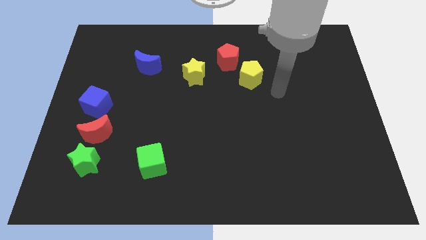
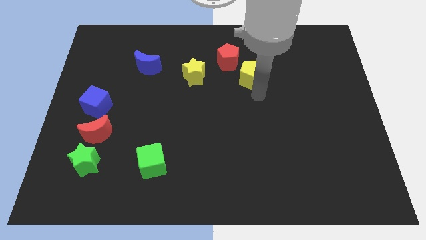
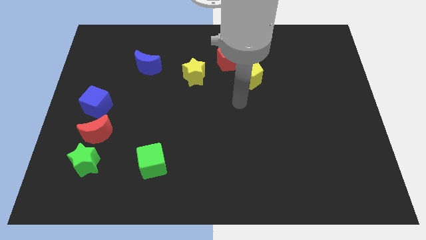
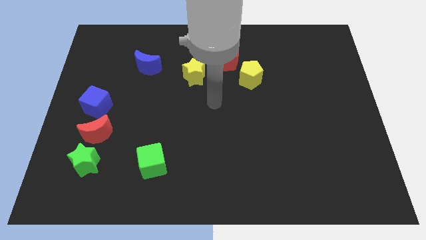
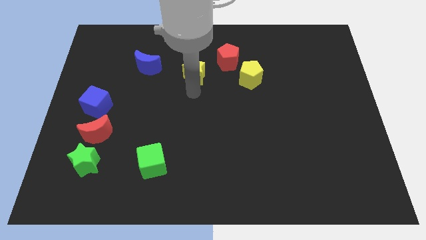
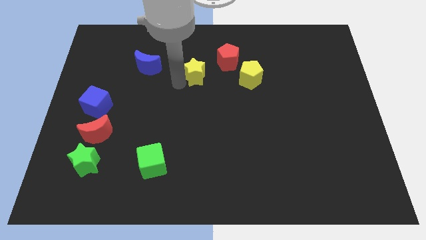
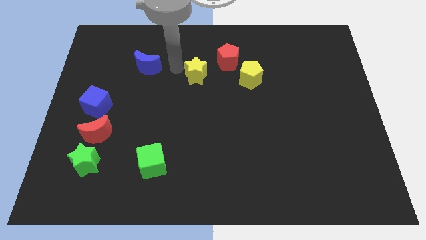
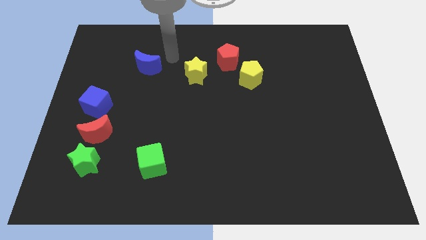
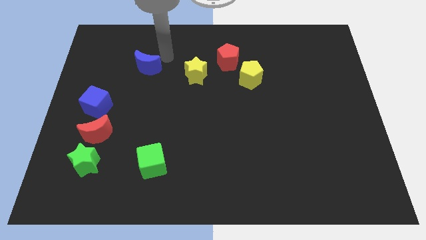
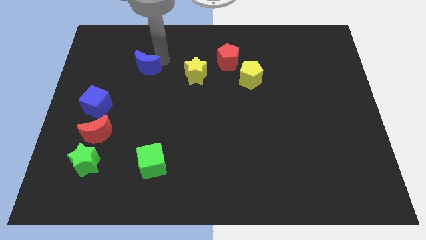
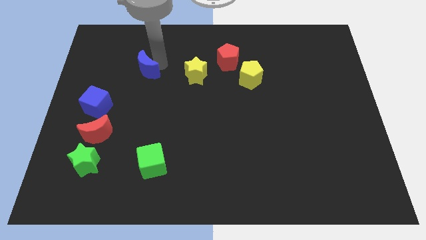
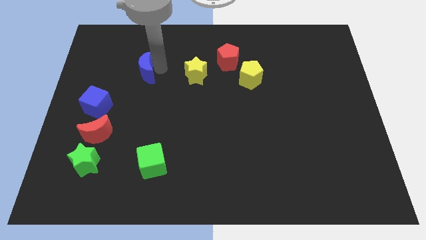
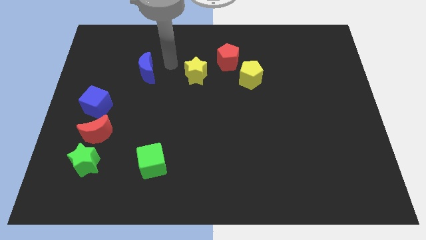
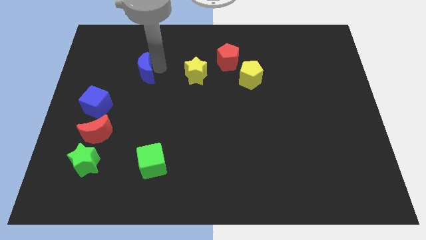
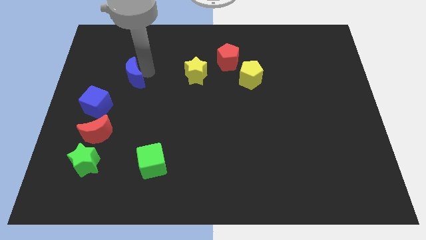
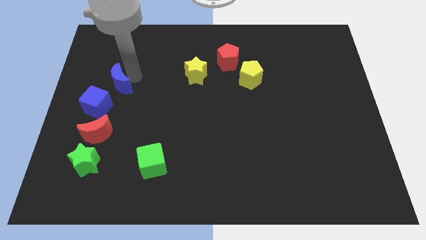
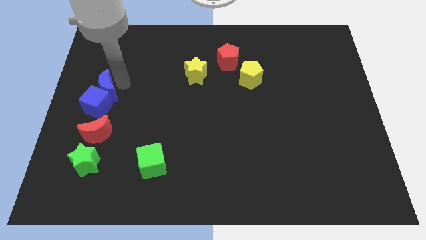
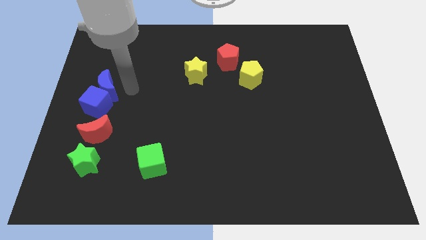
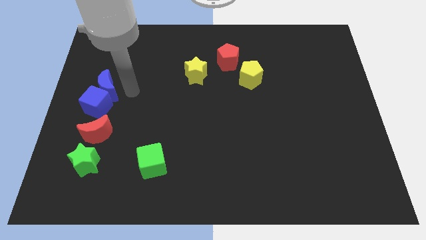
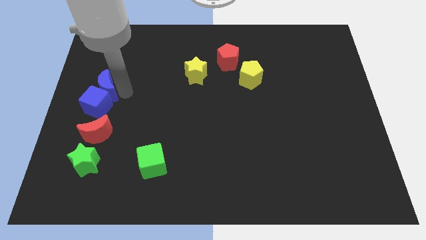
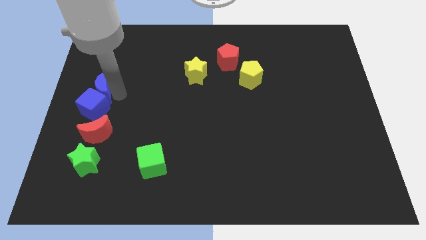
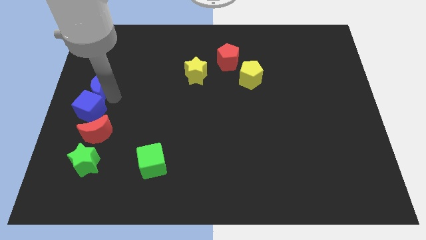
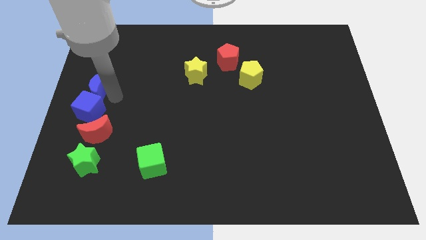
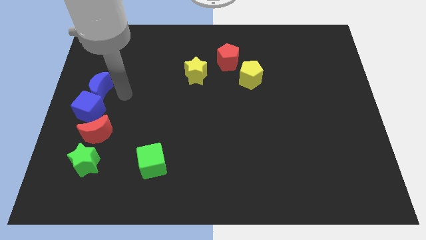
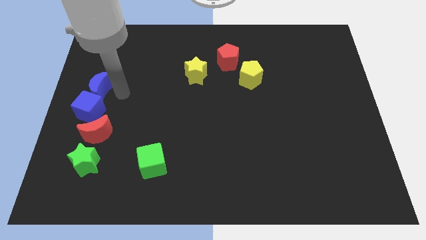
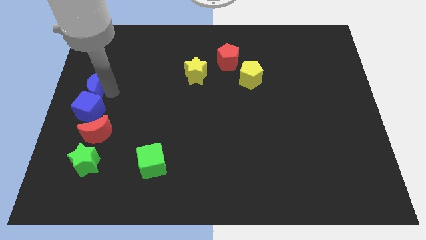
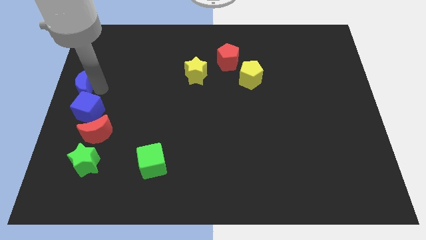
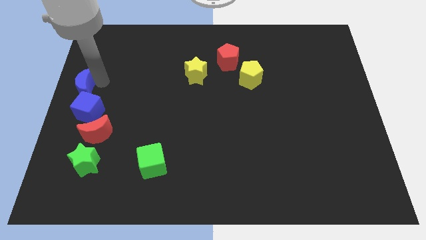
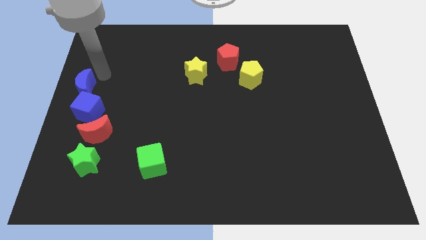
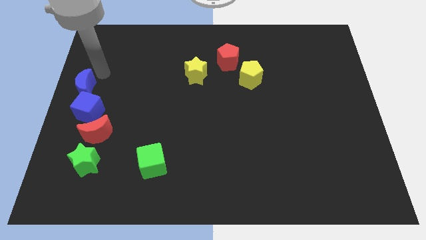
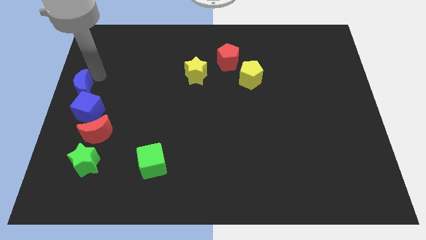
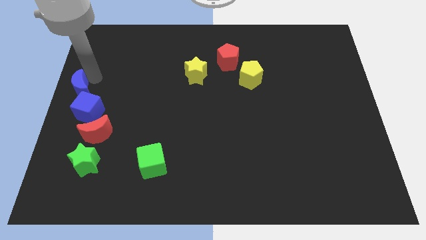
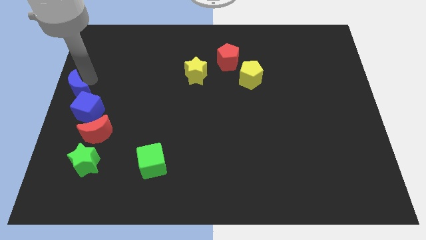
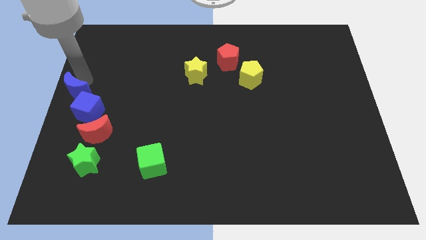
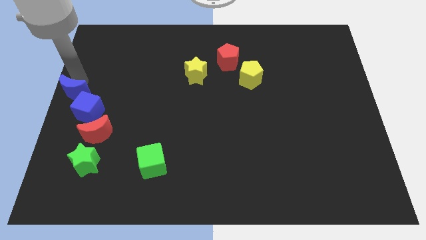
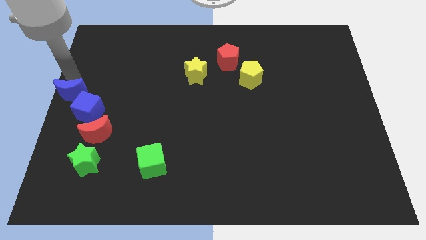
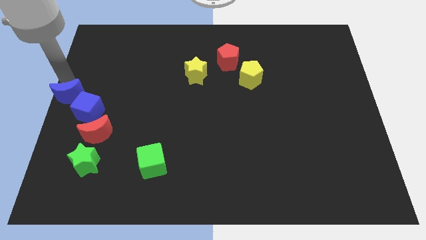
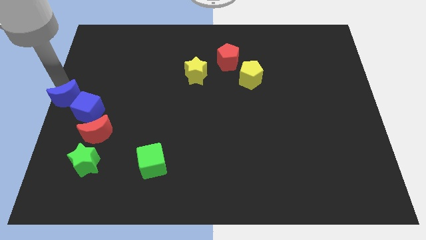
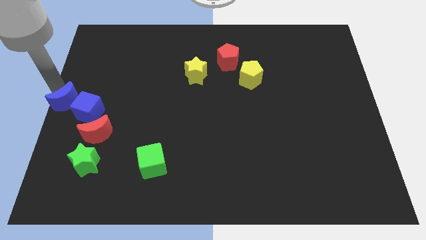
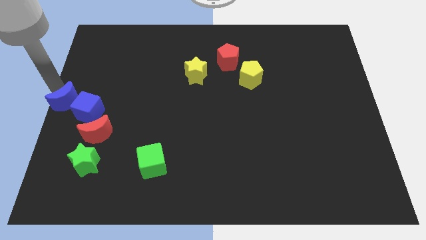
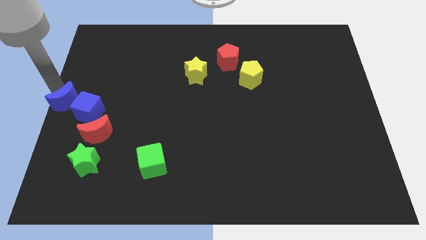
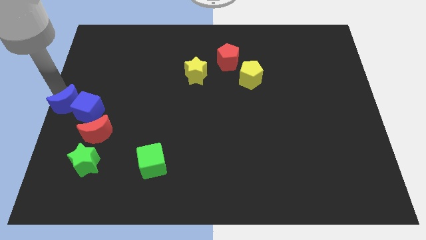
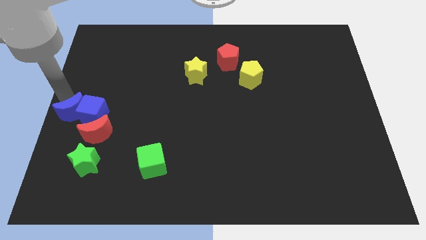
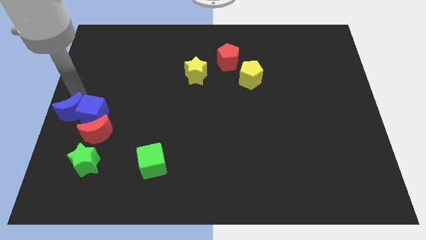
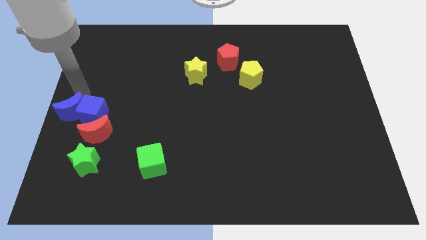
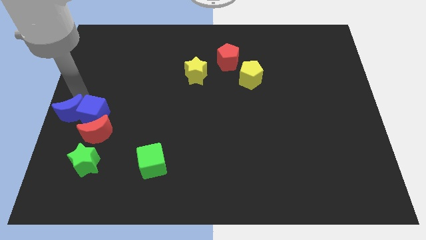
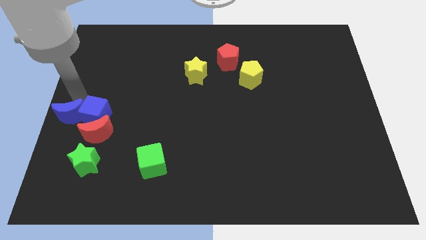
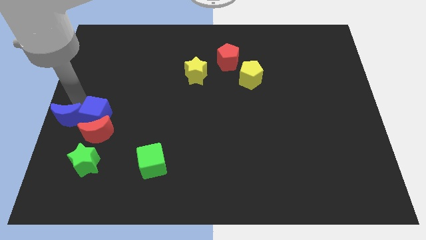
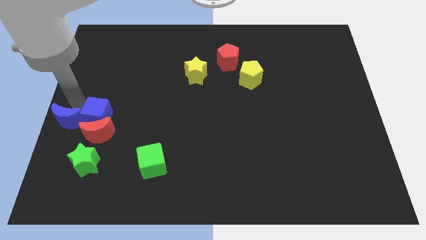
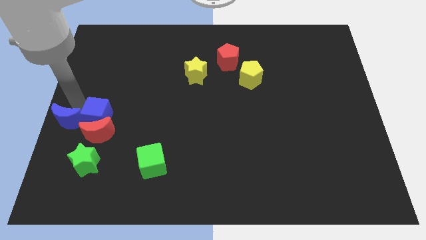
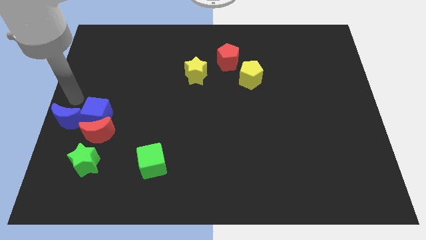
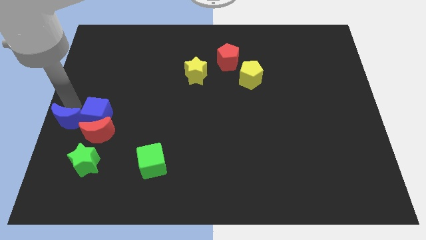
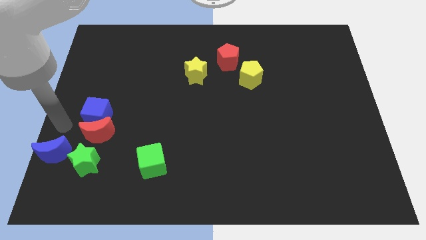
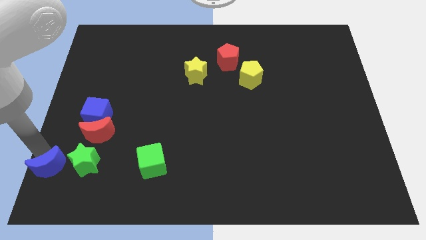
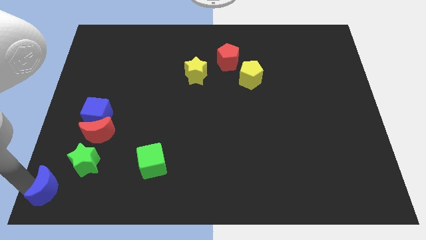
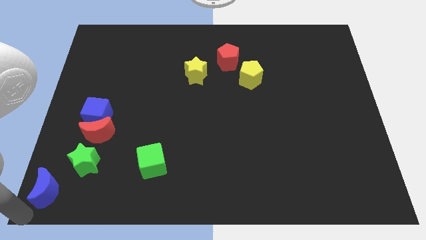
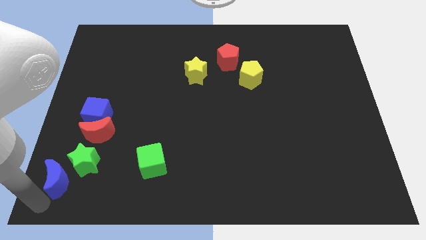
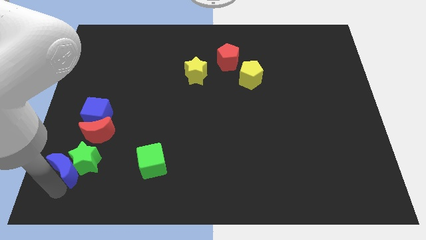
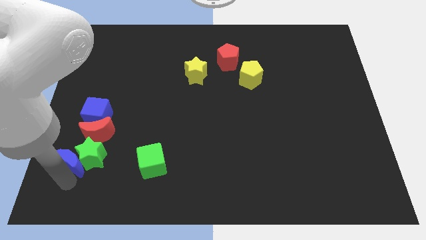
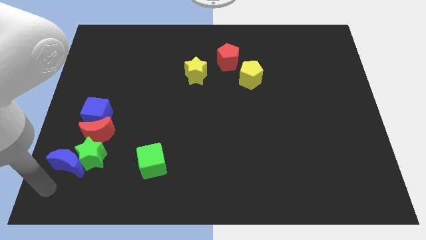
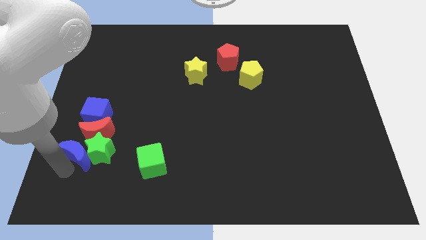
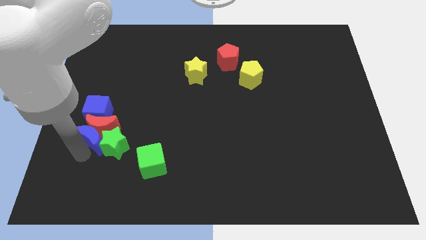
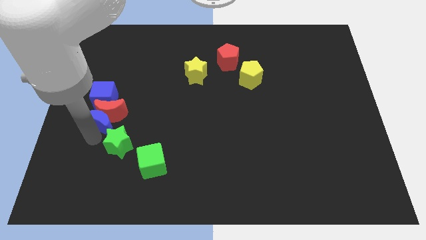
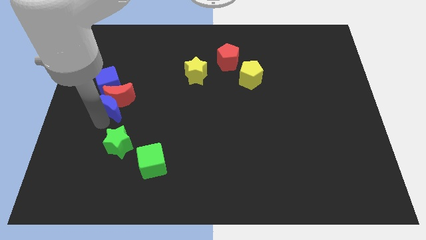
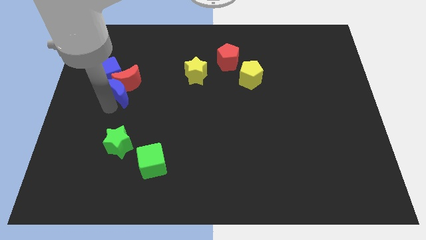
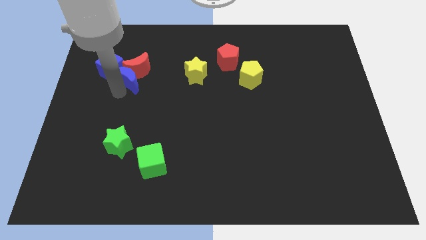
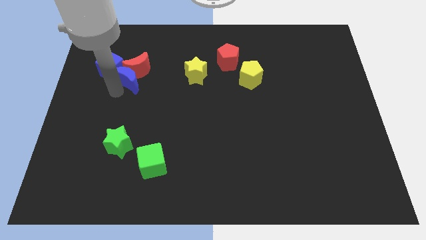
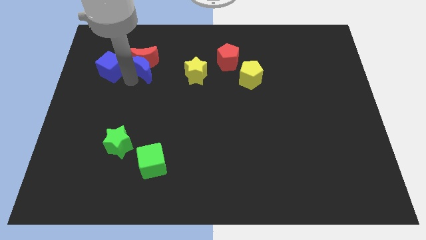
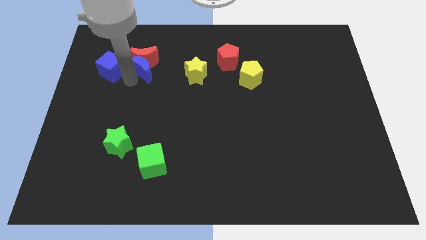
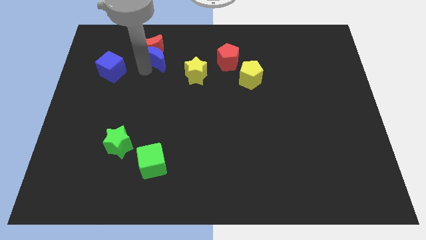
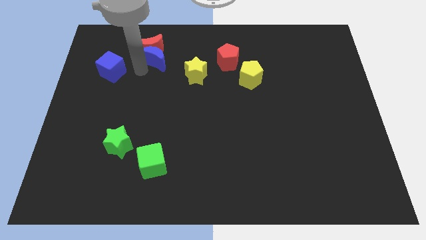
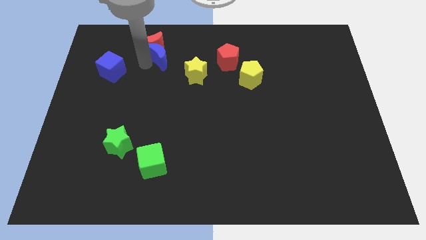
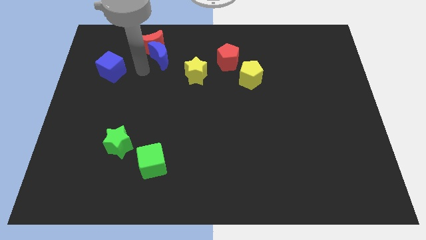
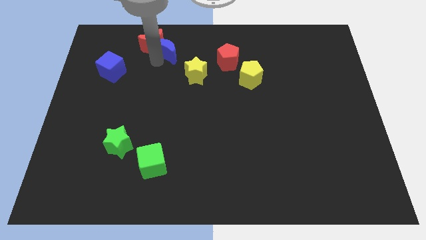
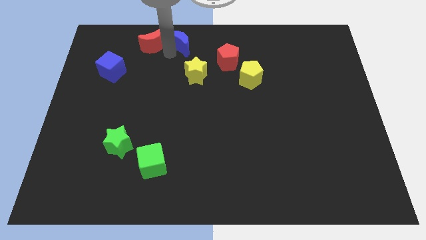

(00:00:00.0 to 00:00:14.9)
push the blue moon to the towards your base
